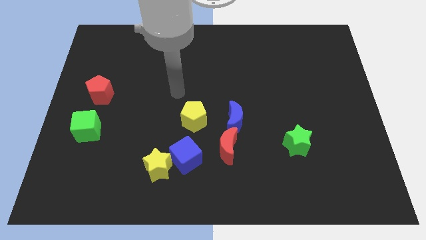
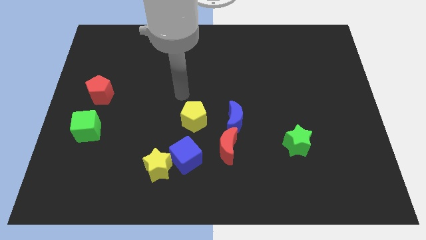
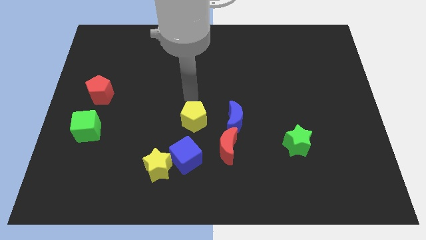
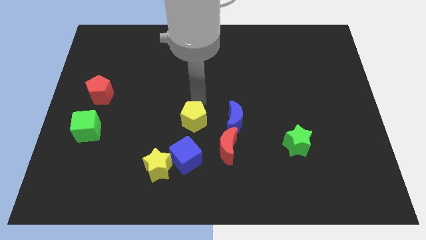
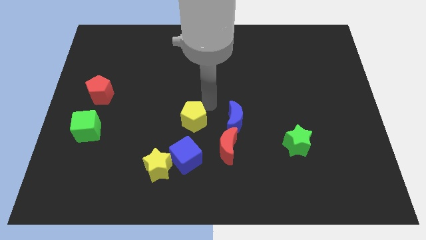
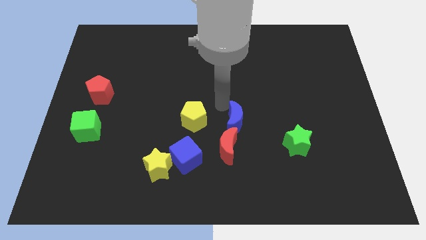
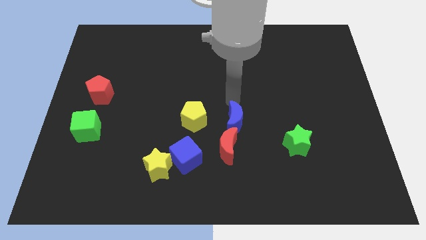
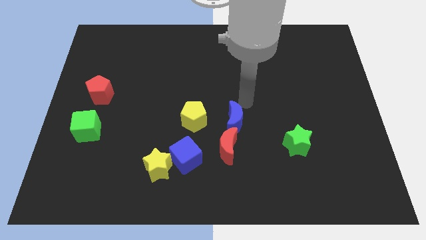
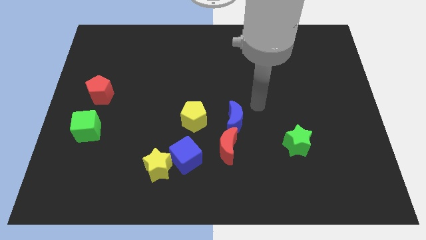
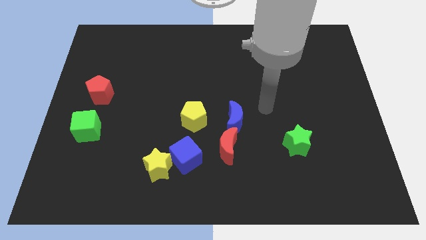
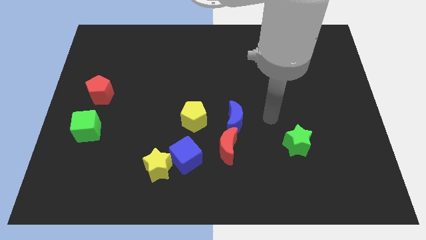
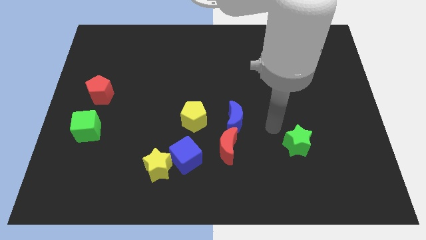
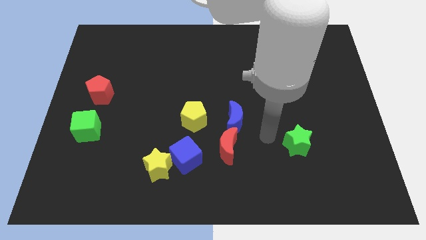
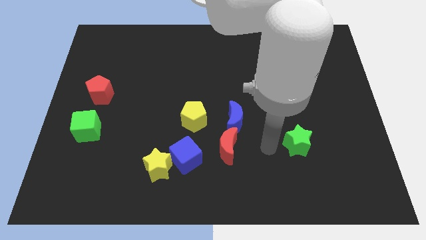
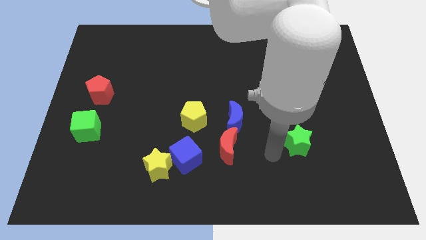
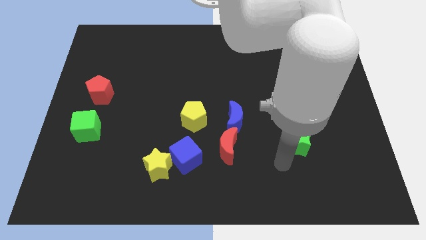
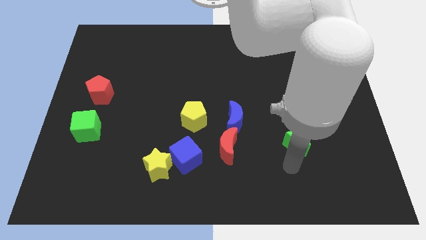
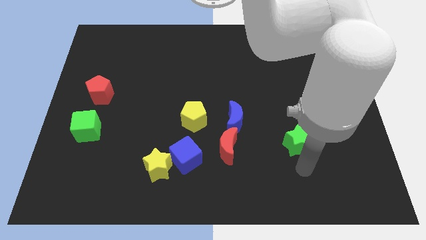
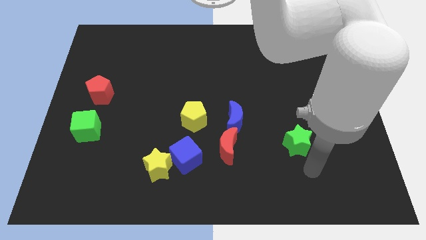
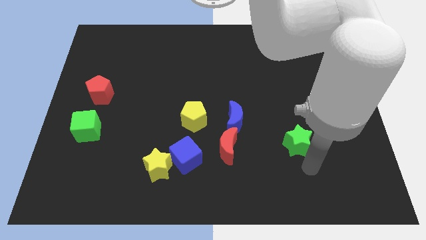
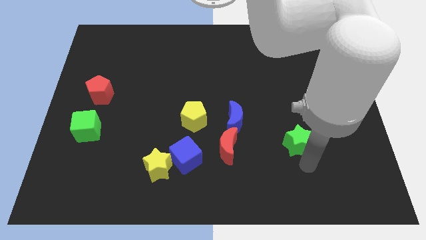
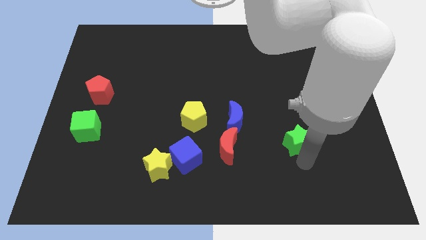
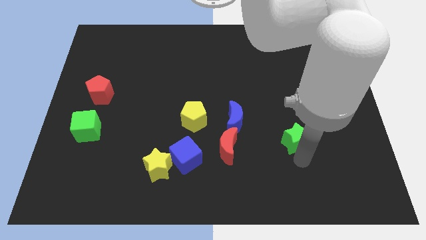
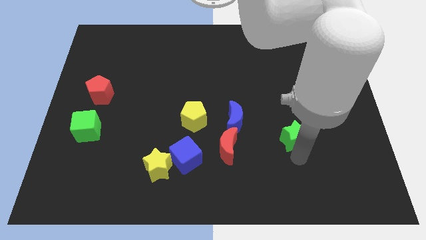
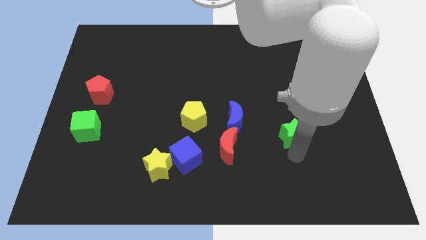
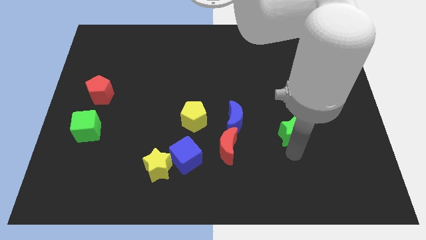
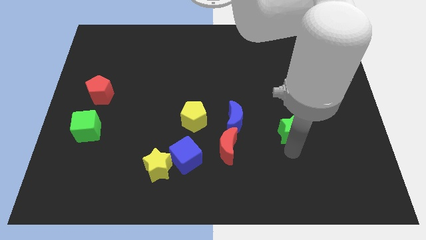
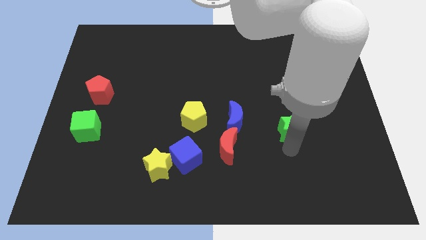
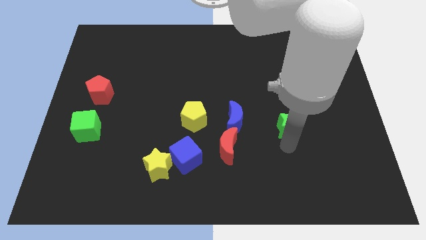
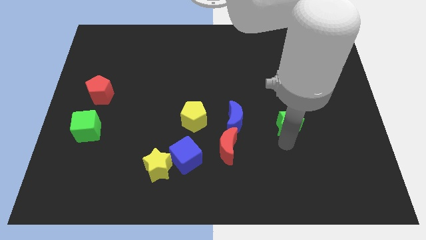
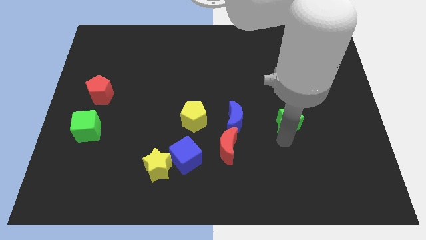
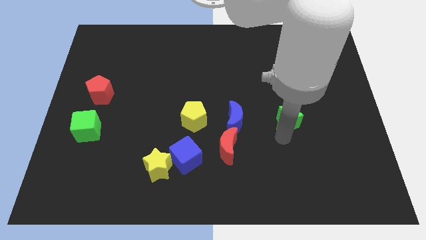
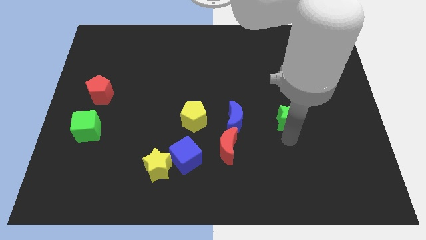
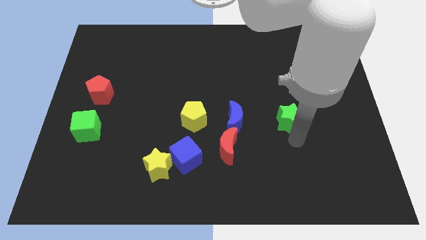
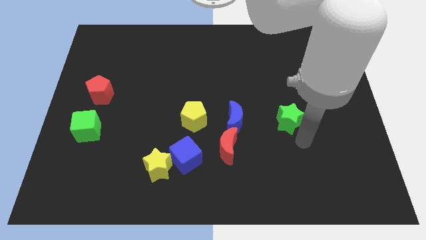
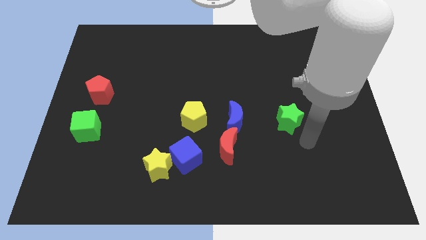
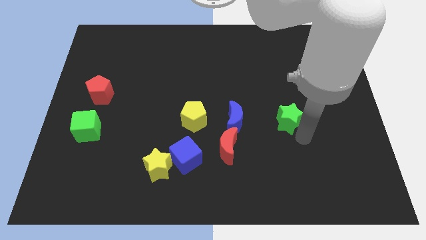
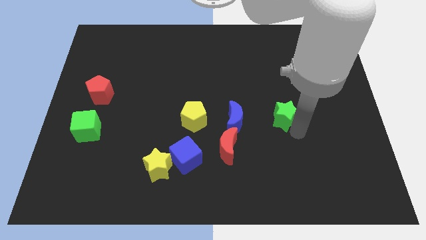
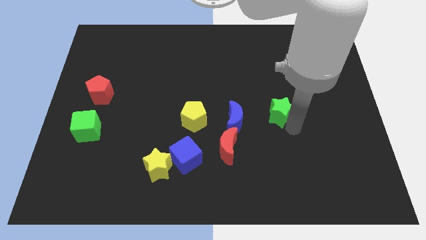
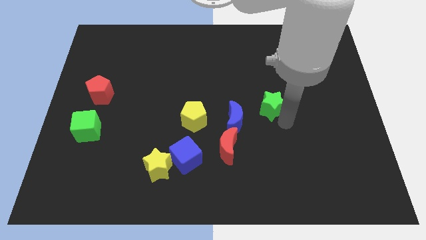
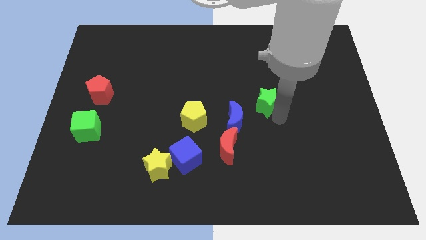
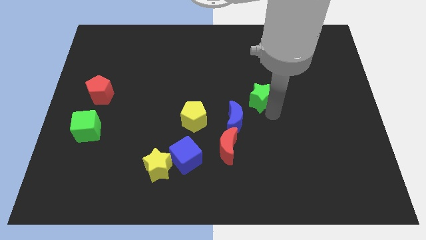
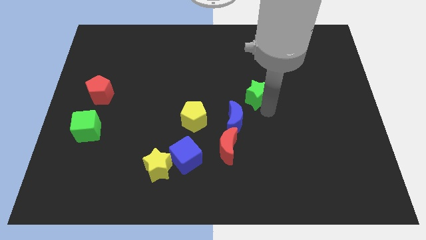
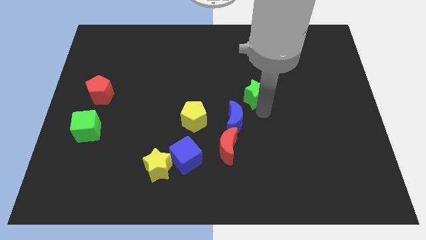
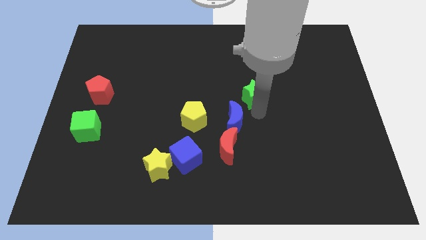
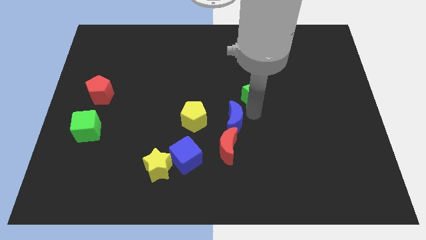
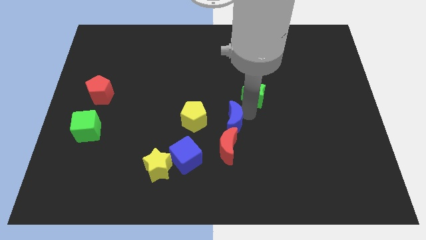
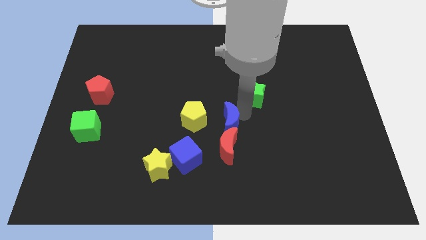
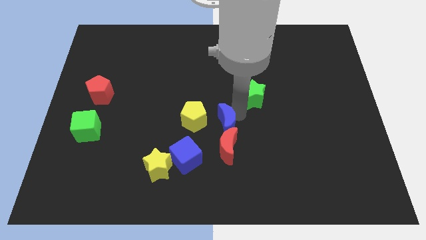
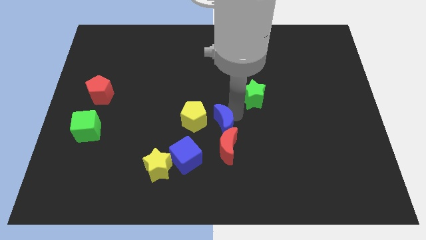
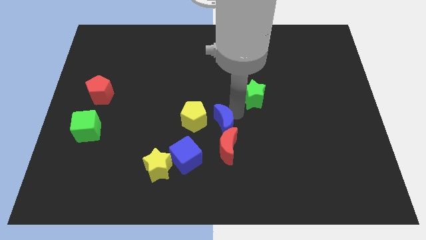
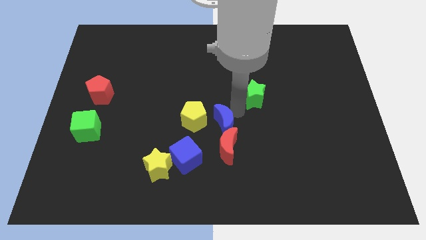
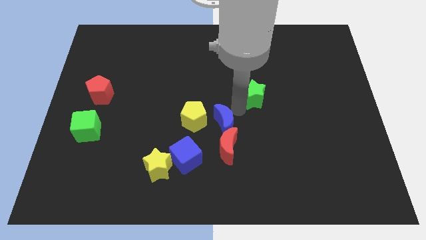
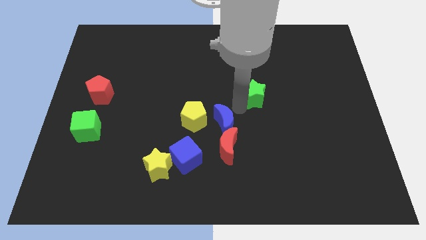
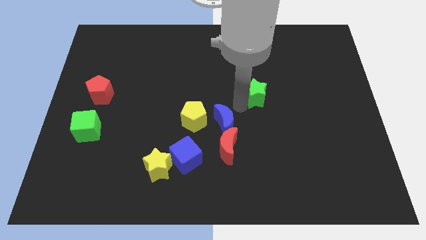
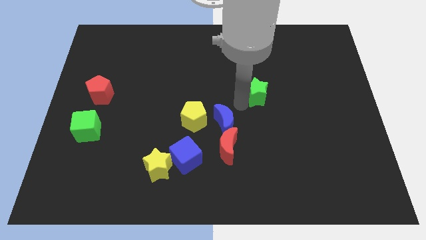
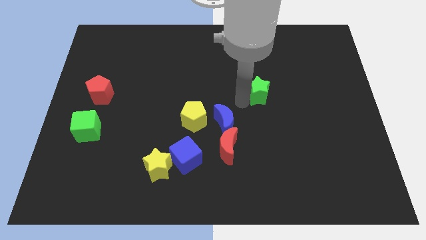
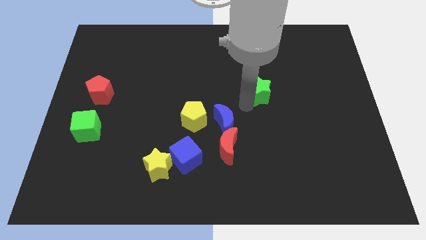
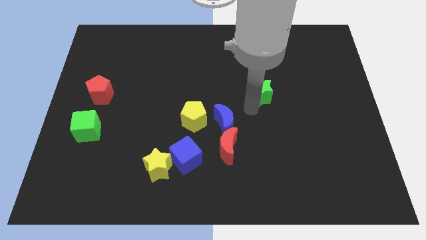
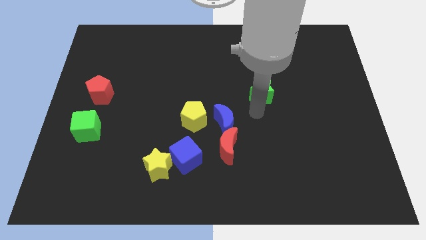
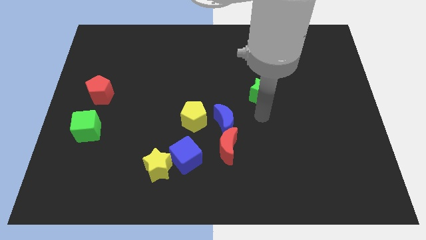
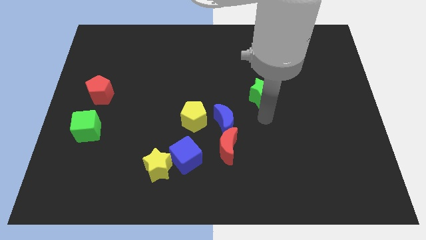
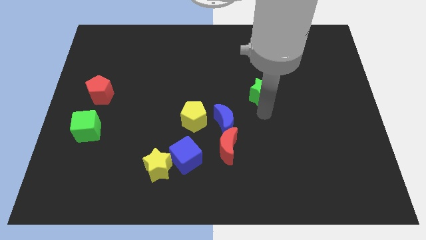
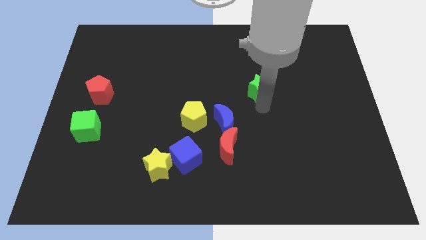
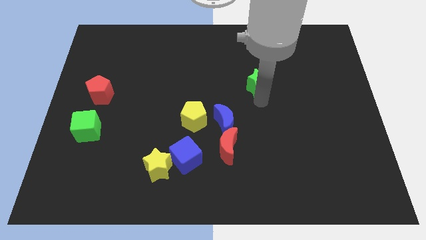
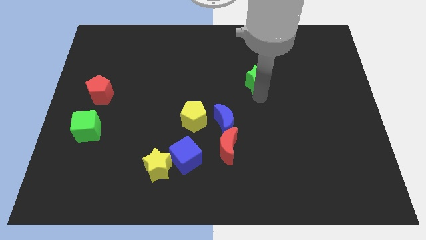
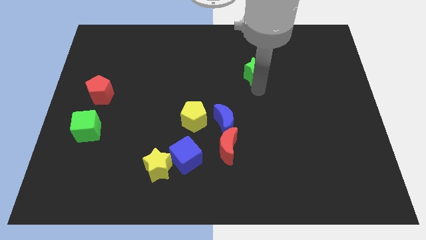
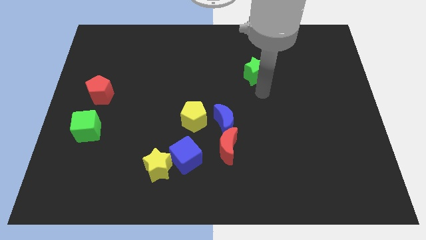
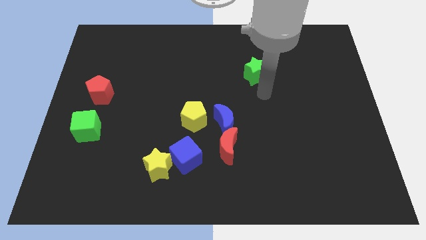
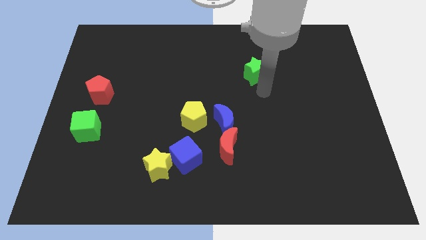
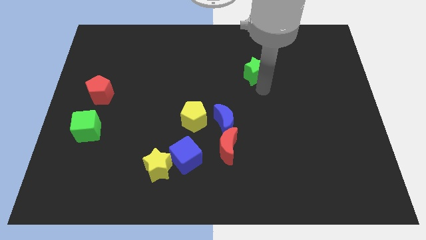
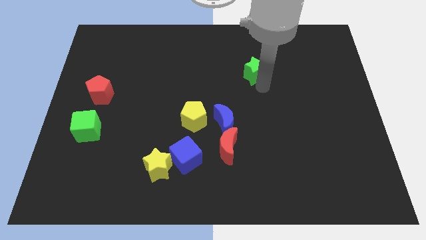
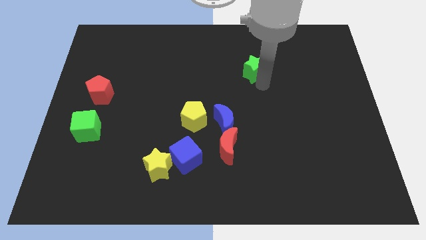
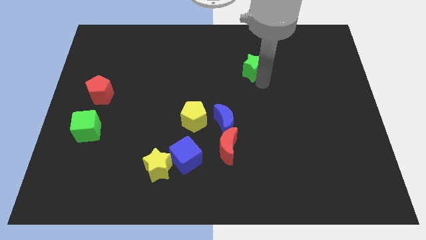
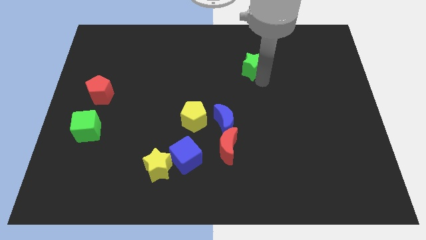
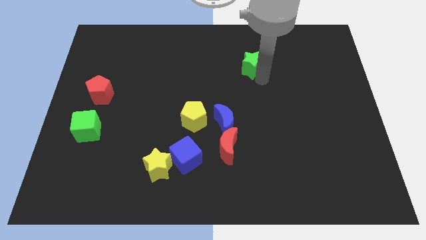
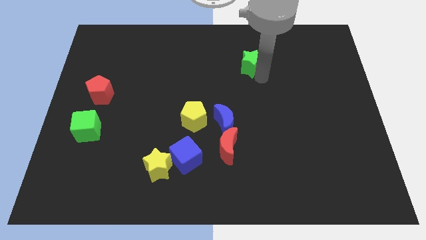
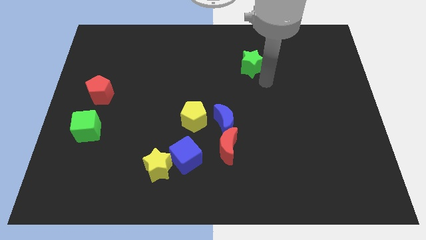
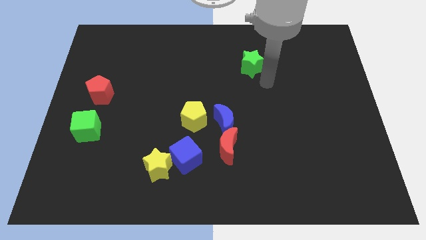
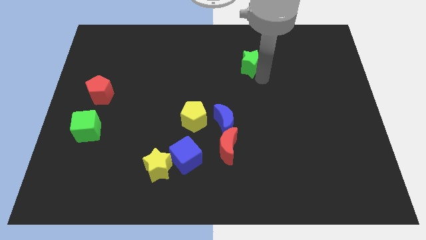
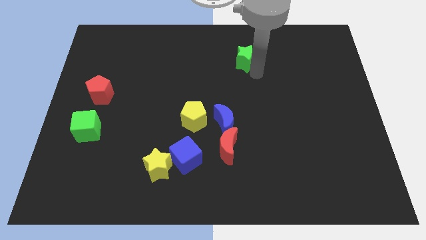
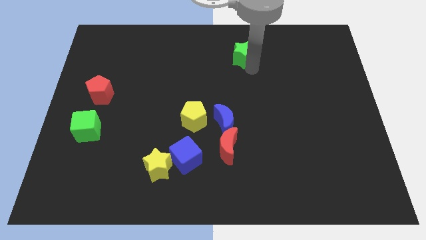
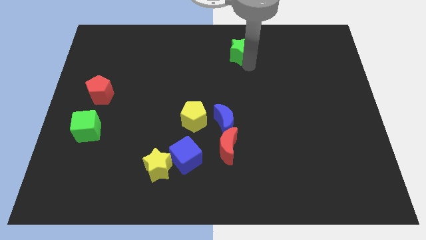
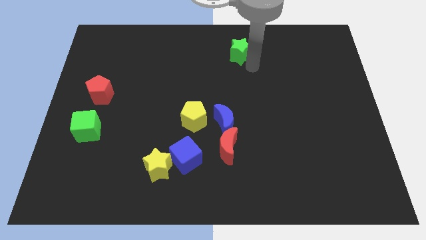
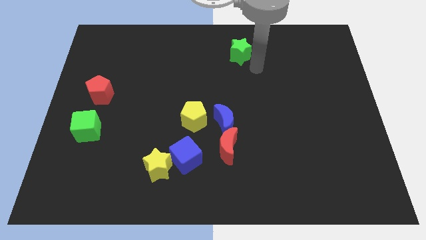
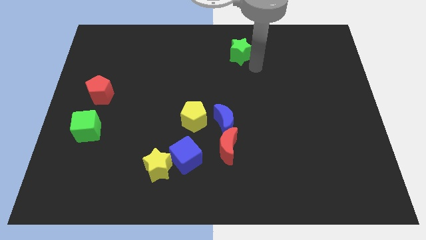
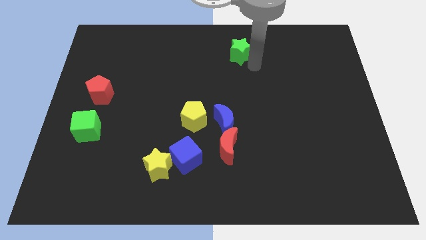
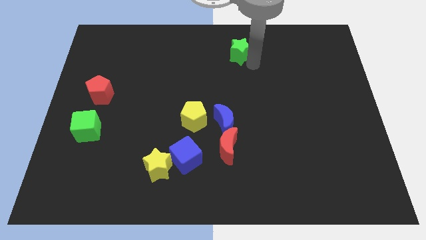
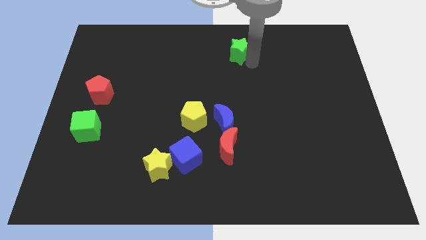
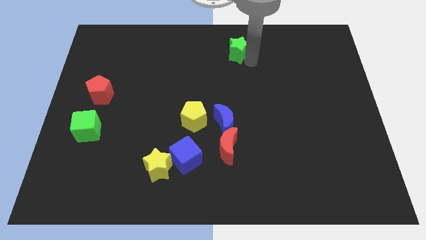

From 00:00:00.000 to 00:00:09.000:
push the green star to the top
